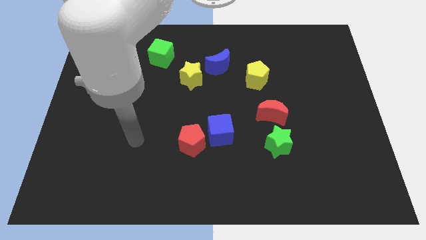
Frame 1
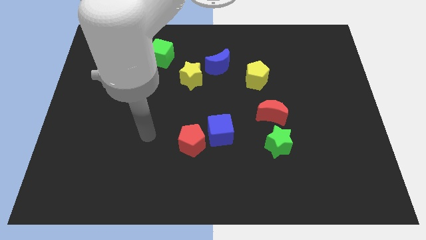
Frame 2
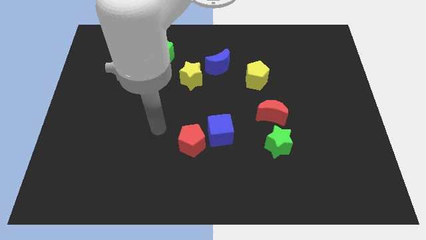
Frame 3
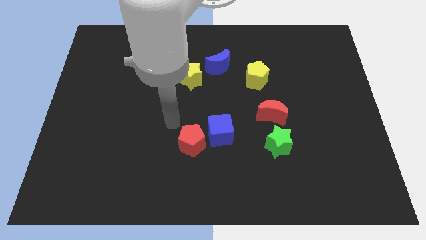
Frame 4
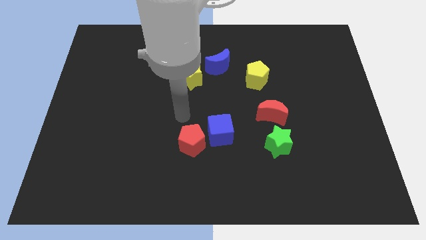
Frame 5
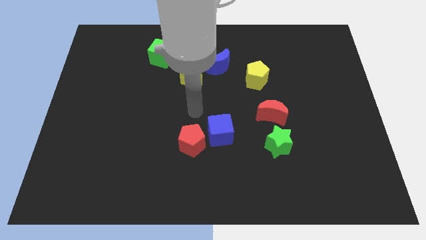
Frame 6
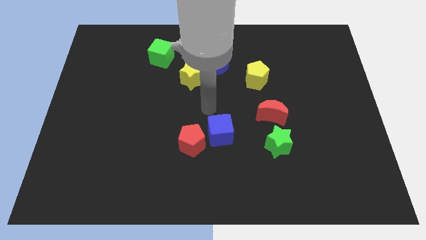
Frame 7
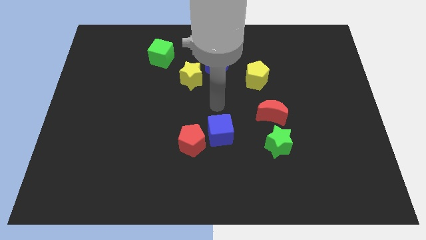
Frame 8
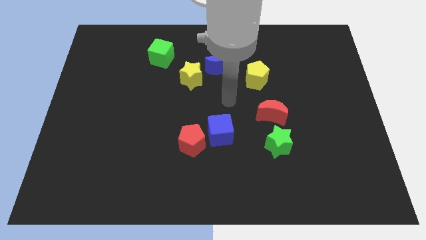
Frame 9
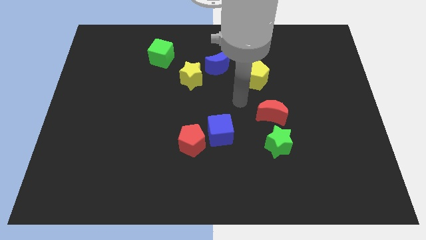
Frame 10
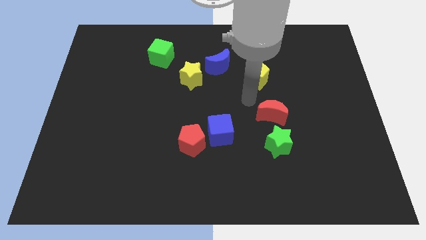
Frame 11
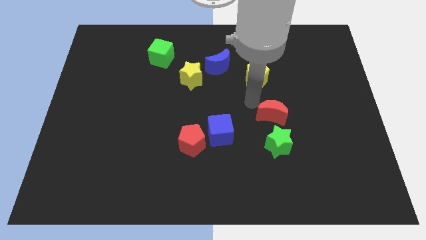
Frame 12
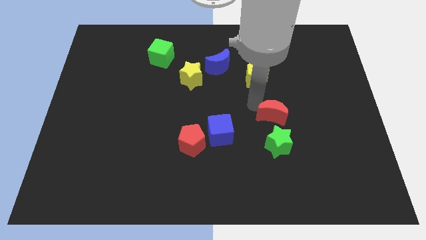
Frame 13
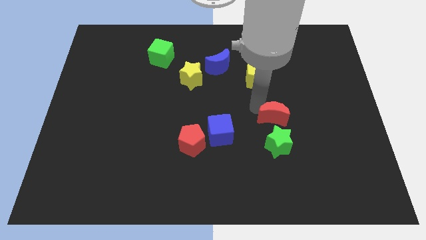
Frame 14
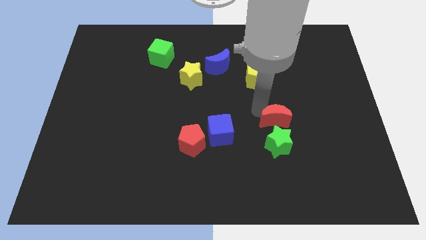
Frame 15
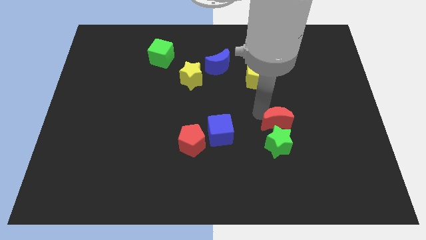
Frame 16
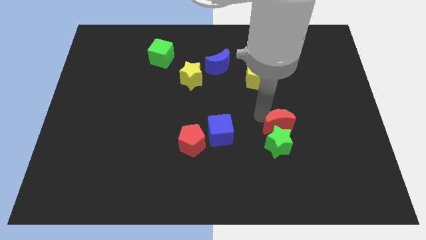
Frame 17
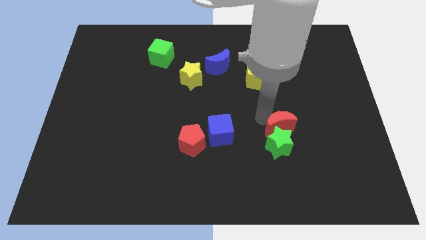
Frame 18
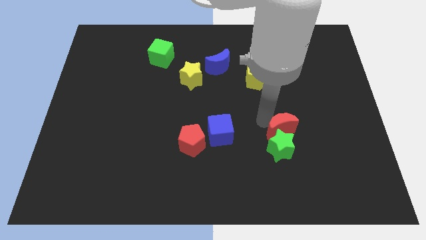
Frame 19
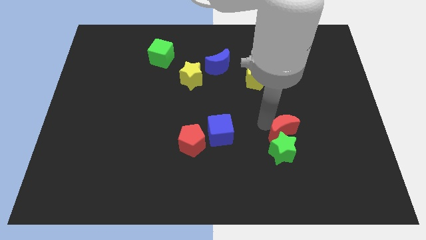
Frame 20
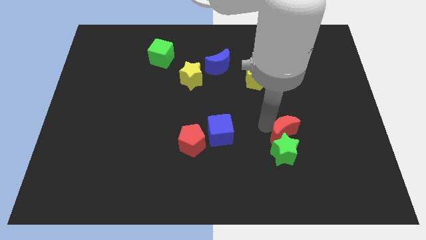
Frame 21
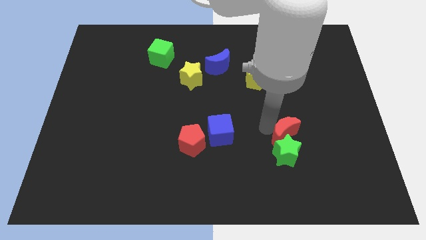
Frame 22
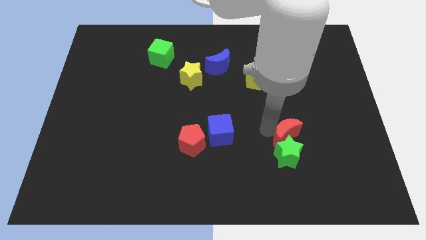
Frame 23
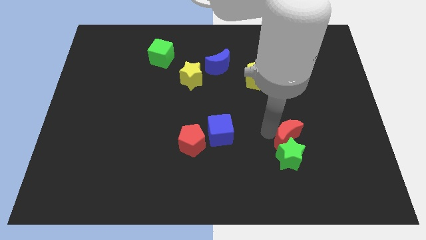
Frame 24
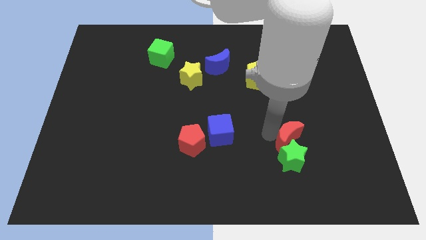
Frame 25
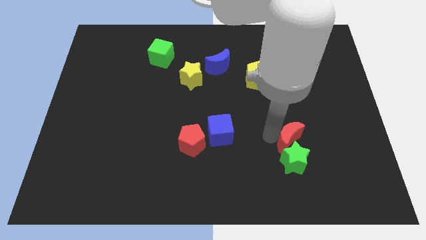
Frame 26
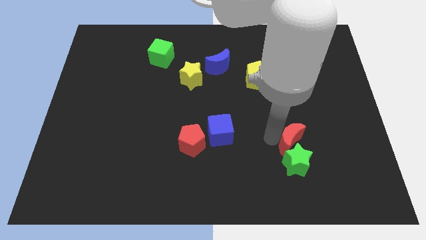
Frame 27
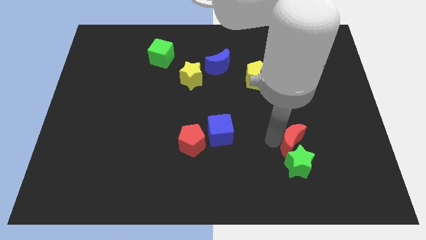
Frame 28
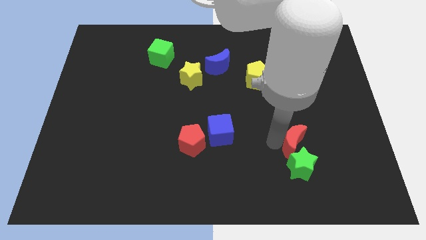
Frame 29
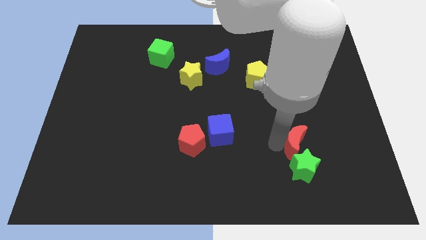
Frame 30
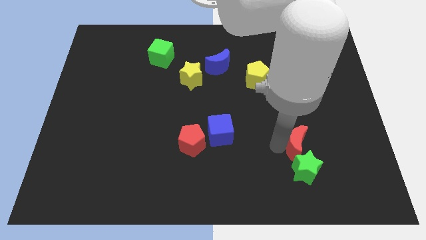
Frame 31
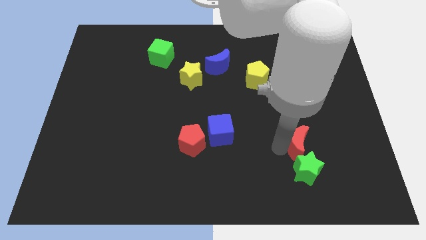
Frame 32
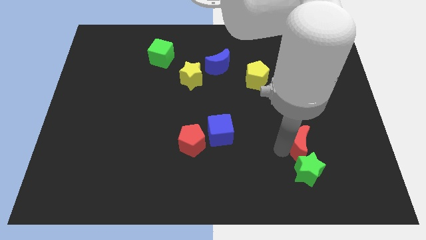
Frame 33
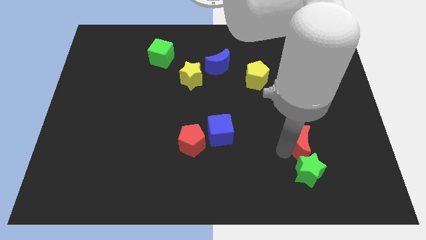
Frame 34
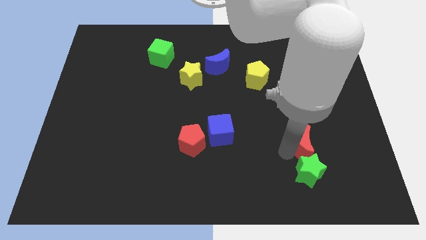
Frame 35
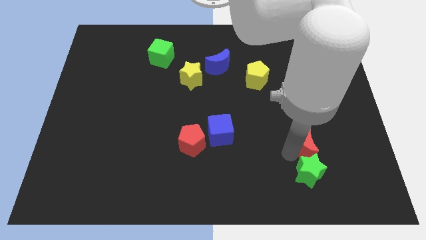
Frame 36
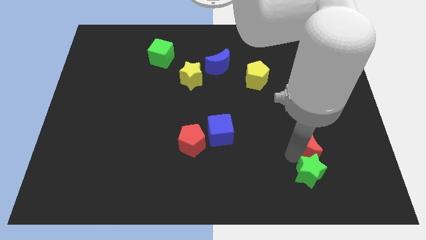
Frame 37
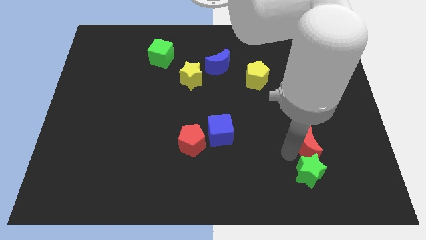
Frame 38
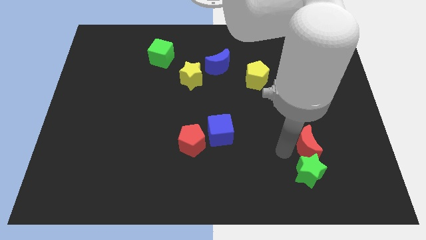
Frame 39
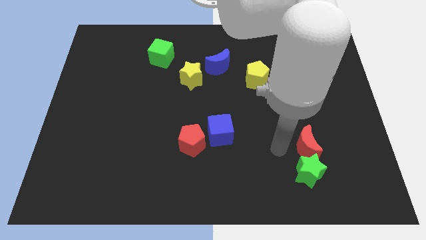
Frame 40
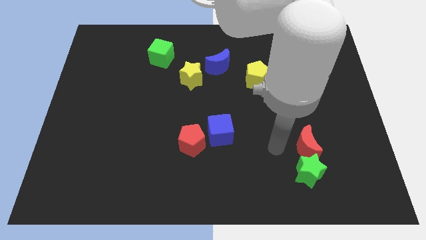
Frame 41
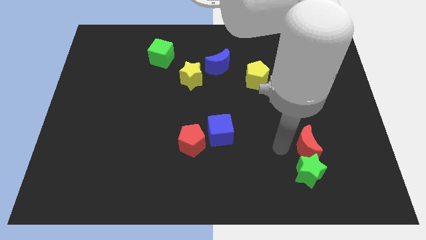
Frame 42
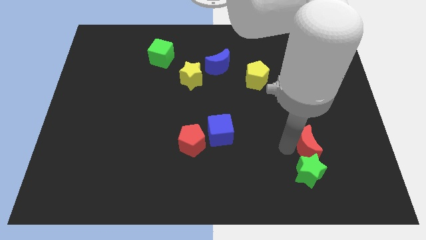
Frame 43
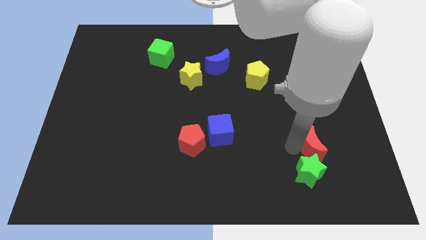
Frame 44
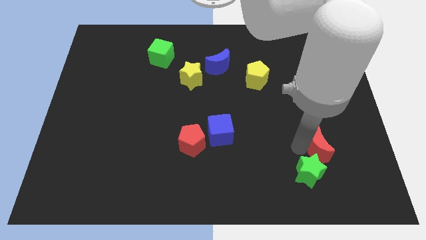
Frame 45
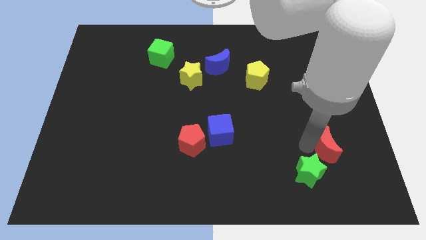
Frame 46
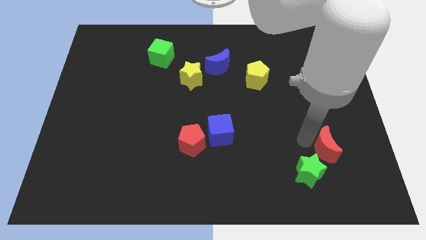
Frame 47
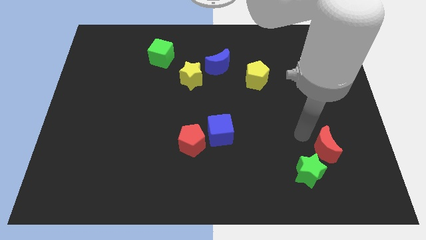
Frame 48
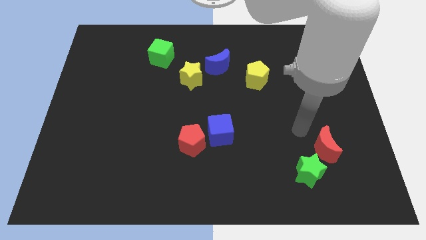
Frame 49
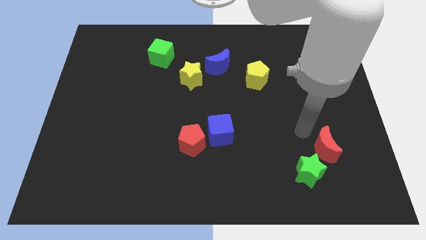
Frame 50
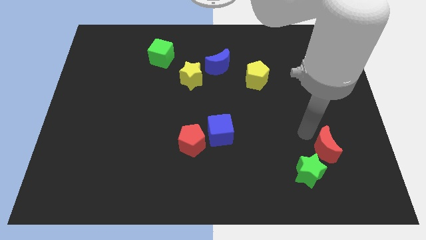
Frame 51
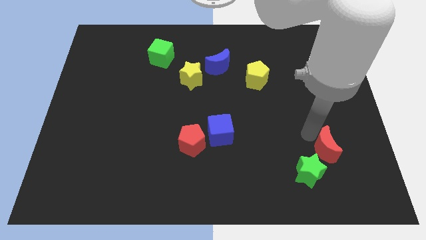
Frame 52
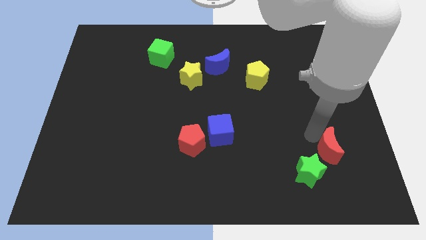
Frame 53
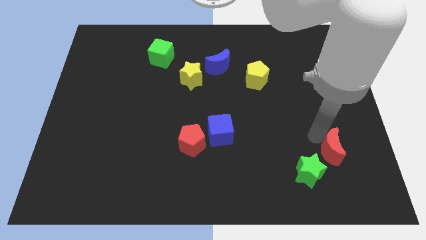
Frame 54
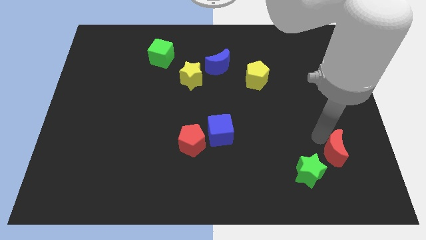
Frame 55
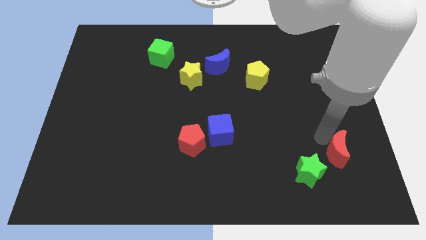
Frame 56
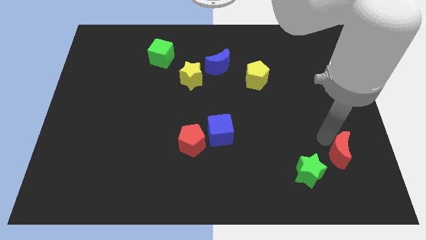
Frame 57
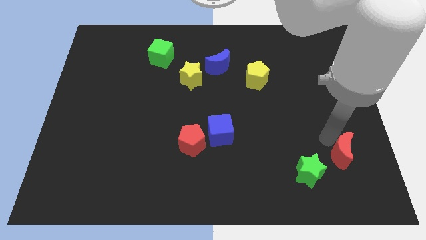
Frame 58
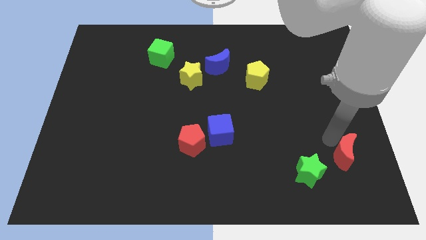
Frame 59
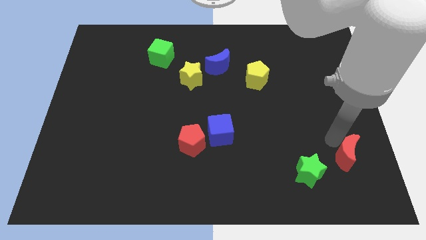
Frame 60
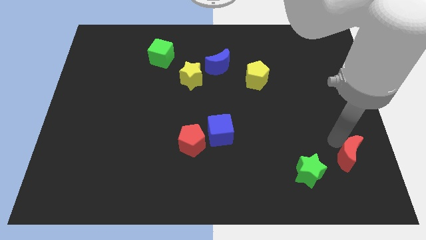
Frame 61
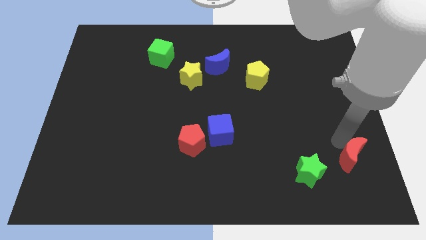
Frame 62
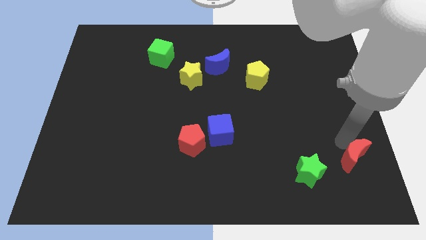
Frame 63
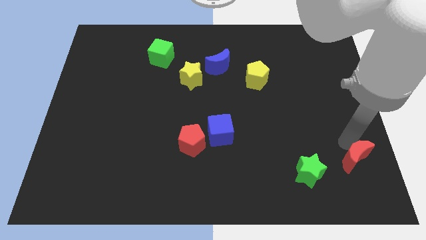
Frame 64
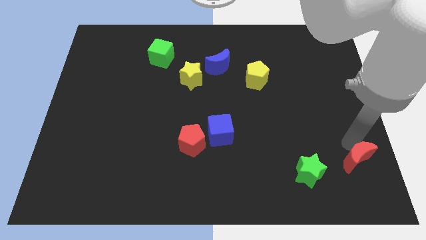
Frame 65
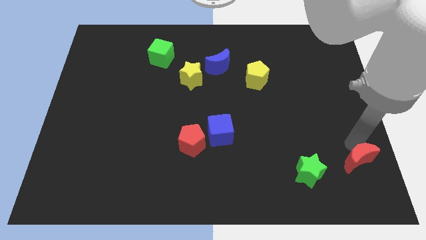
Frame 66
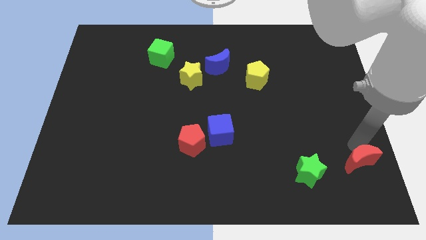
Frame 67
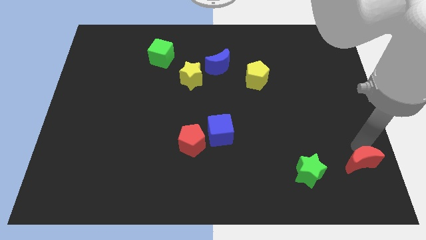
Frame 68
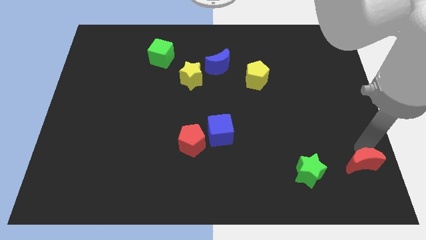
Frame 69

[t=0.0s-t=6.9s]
push the red moon to the bottom right of the board

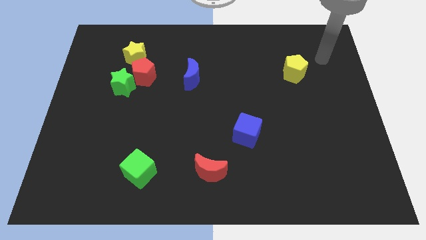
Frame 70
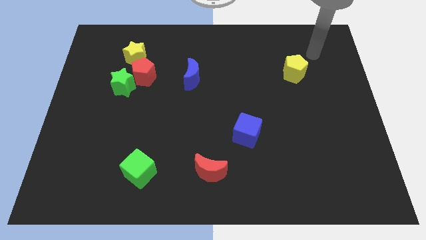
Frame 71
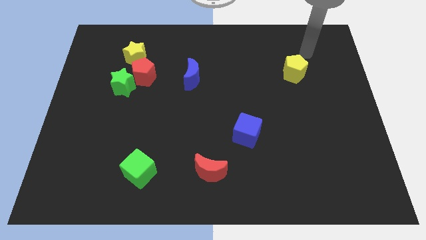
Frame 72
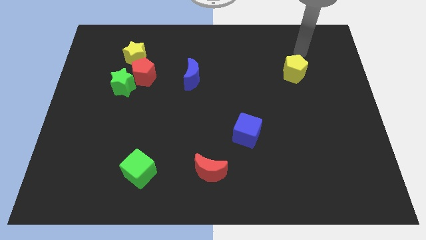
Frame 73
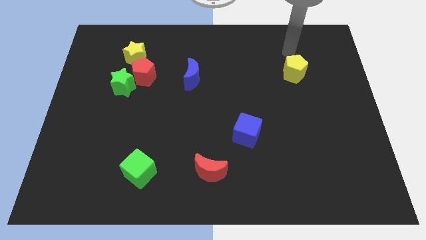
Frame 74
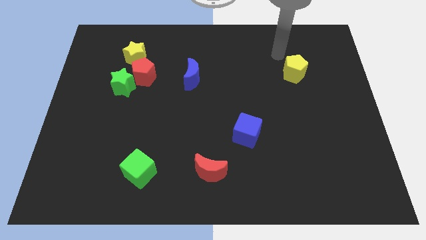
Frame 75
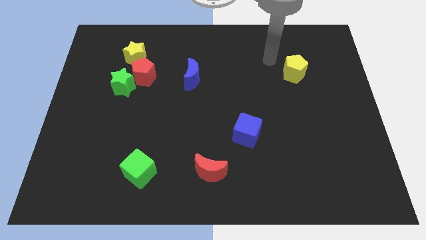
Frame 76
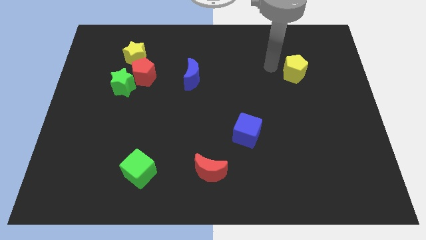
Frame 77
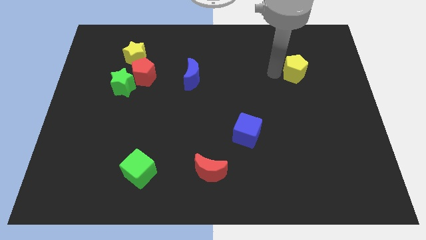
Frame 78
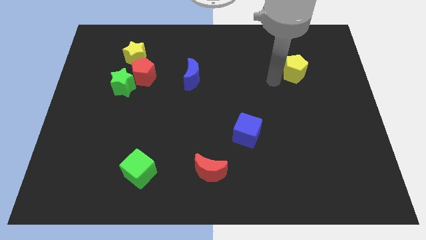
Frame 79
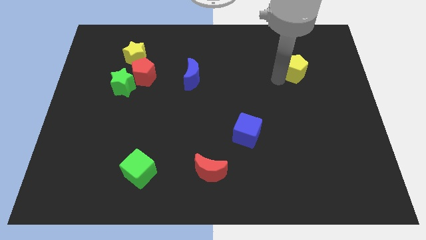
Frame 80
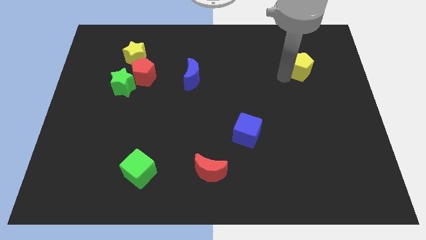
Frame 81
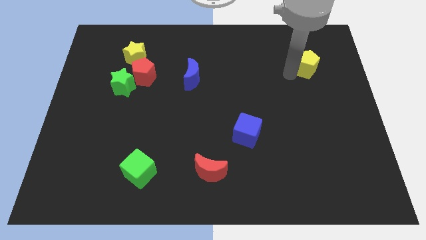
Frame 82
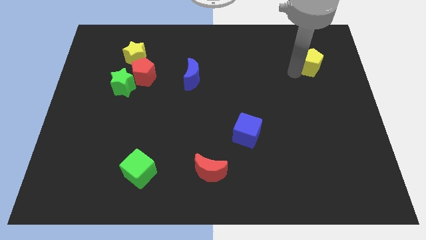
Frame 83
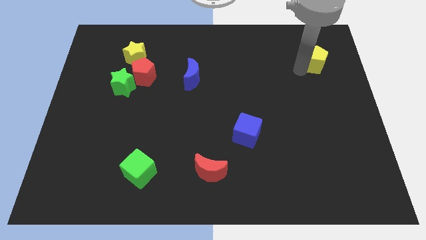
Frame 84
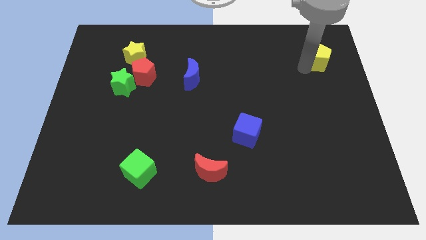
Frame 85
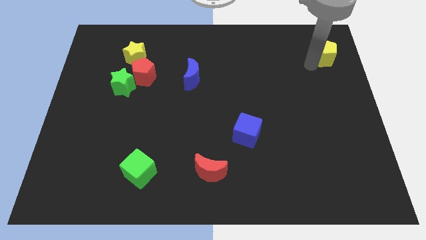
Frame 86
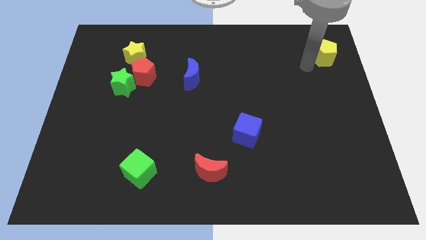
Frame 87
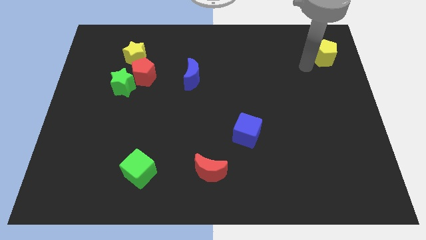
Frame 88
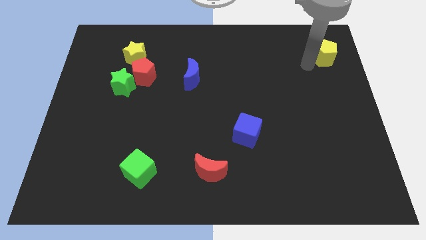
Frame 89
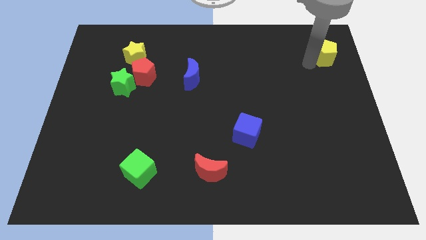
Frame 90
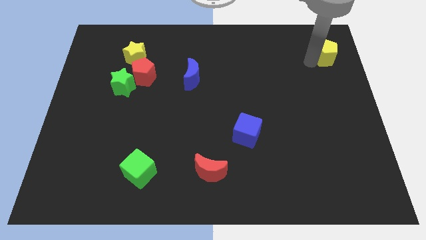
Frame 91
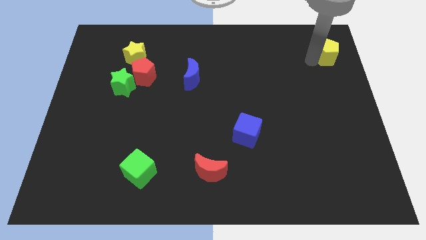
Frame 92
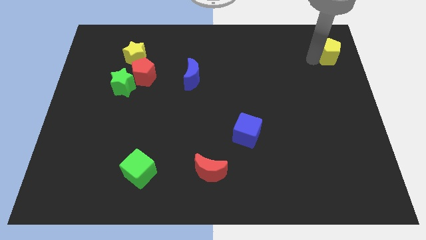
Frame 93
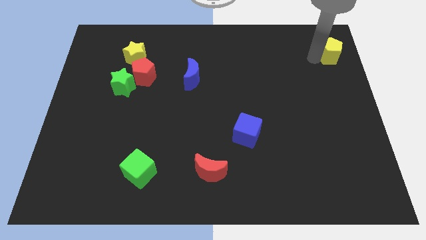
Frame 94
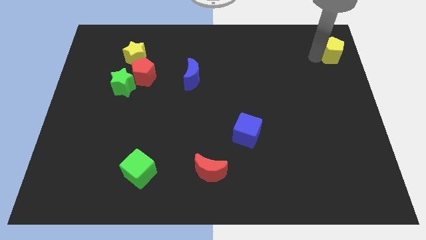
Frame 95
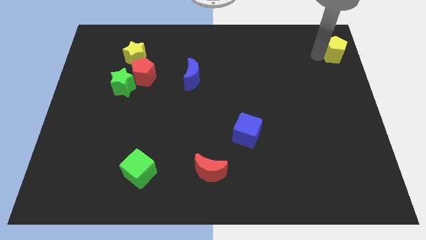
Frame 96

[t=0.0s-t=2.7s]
put the yellow pentagon to the top right
